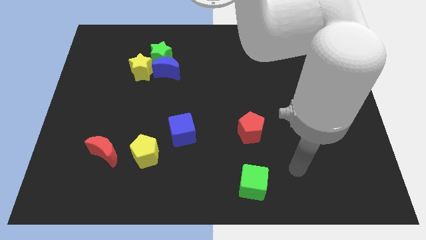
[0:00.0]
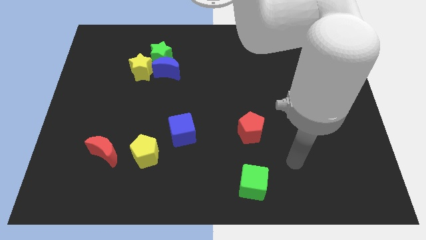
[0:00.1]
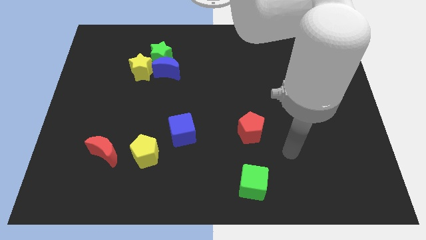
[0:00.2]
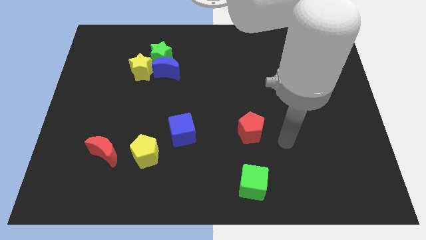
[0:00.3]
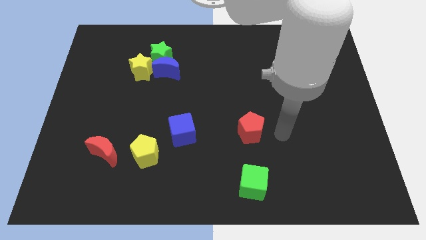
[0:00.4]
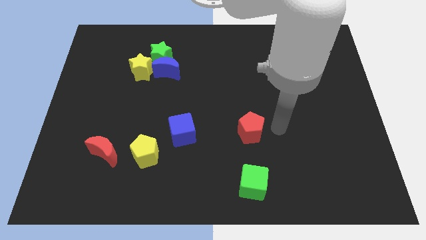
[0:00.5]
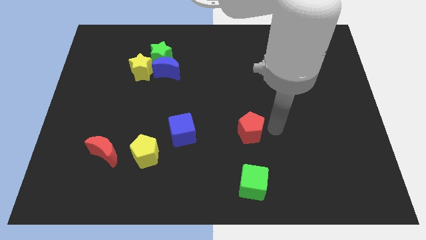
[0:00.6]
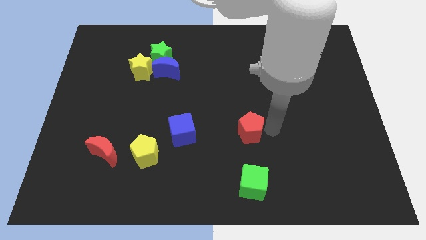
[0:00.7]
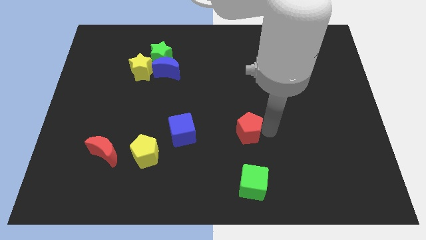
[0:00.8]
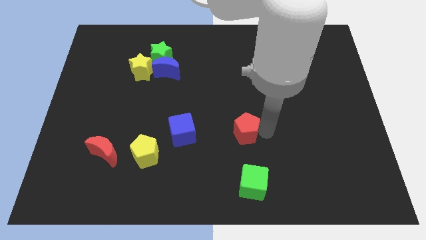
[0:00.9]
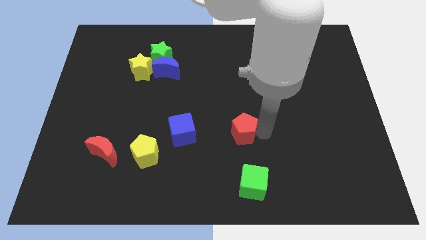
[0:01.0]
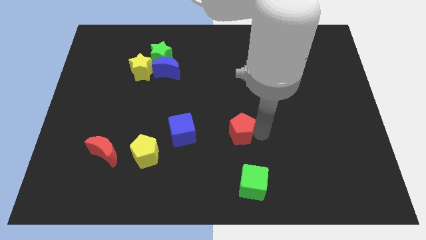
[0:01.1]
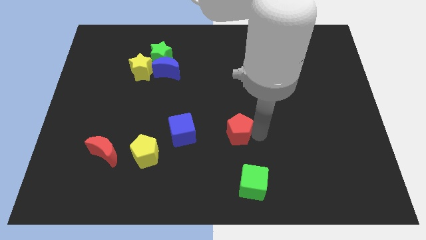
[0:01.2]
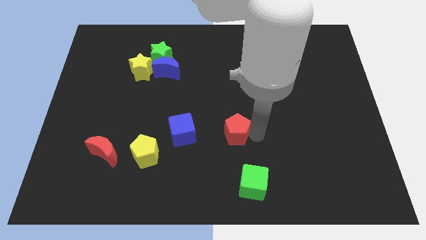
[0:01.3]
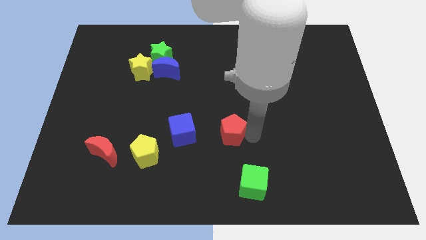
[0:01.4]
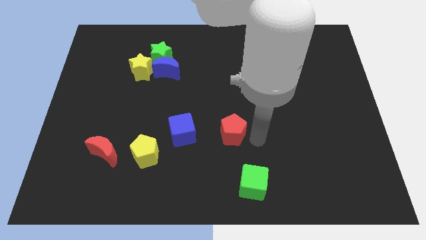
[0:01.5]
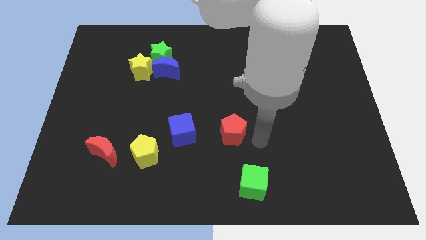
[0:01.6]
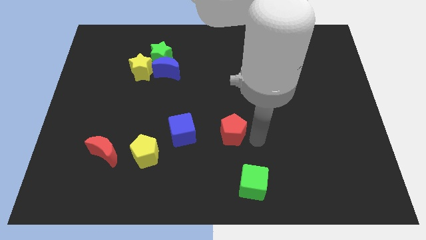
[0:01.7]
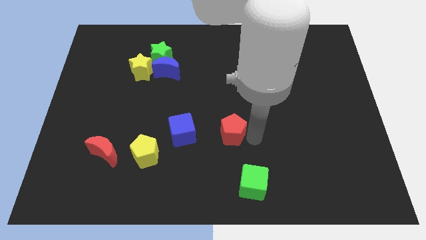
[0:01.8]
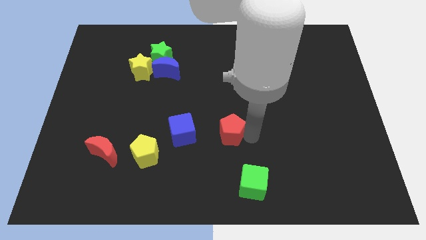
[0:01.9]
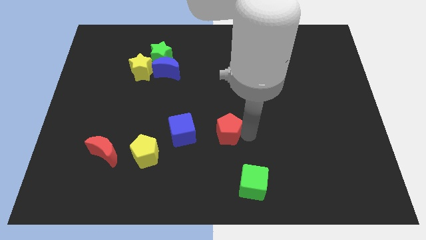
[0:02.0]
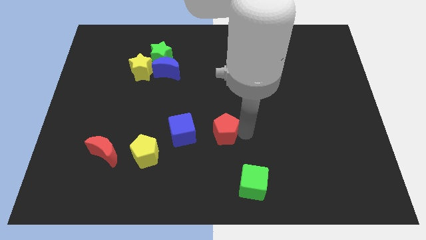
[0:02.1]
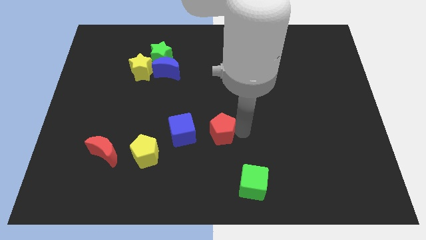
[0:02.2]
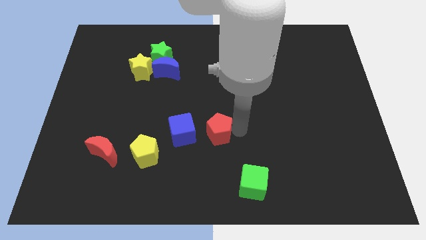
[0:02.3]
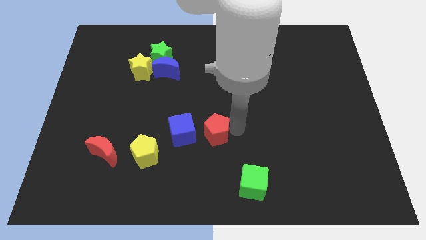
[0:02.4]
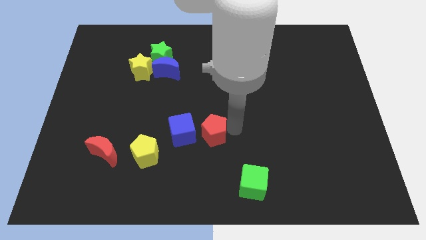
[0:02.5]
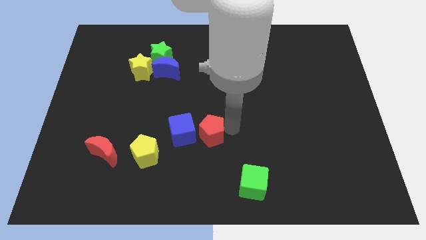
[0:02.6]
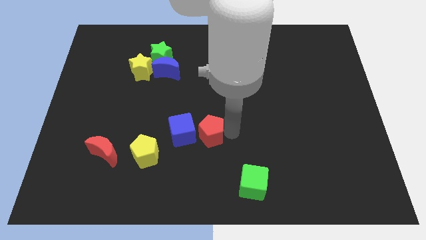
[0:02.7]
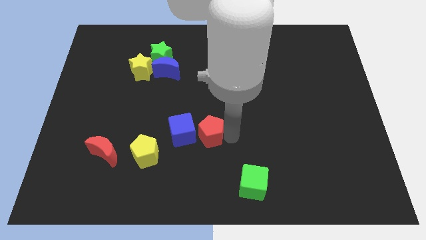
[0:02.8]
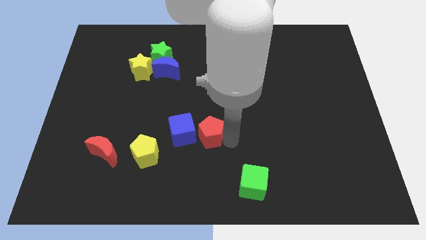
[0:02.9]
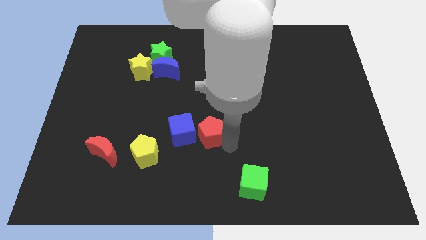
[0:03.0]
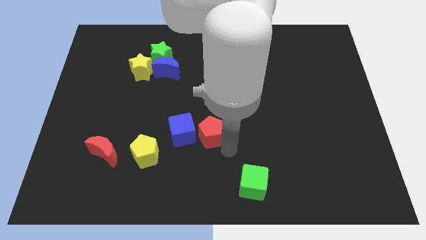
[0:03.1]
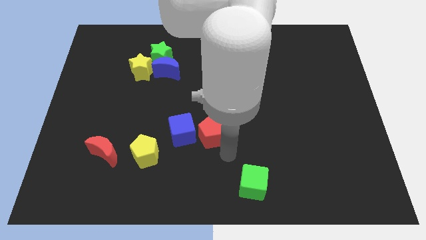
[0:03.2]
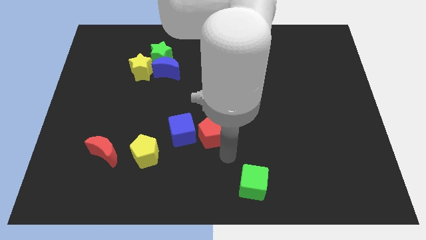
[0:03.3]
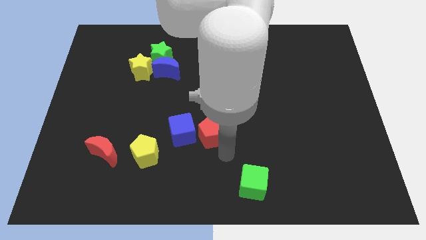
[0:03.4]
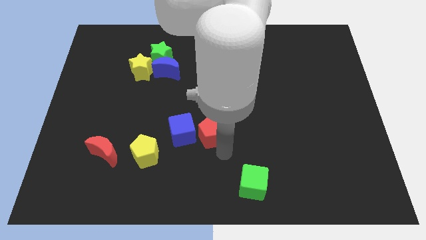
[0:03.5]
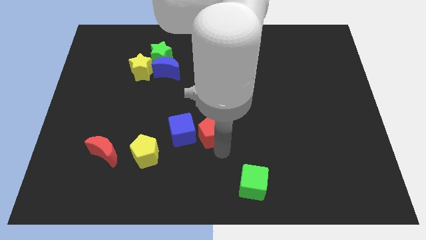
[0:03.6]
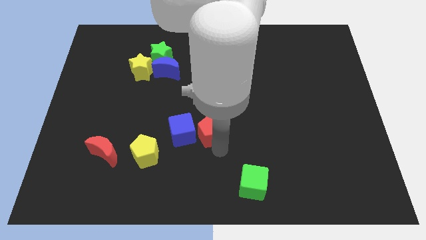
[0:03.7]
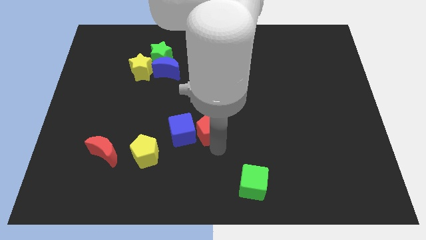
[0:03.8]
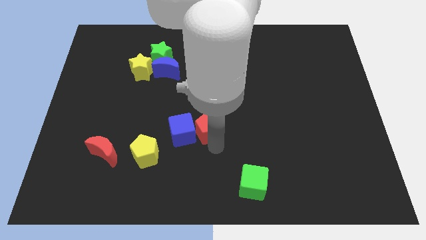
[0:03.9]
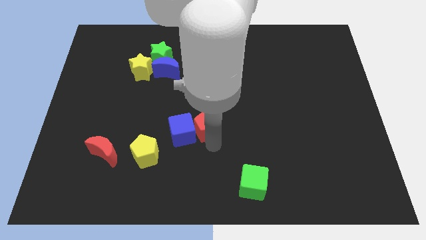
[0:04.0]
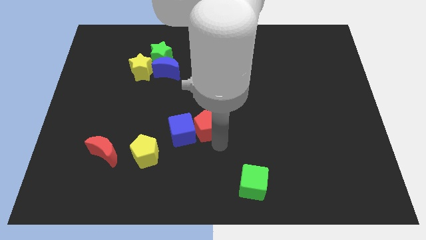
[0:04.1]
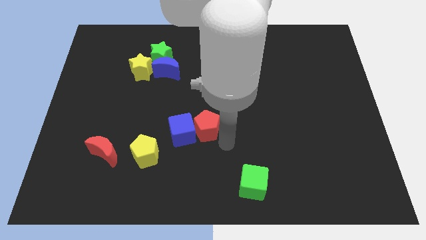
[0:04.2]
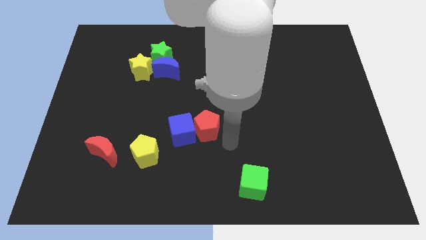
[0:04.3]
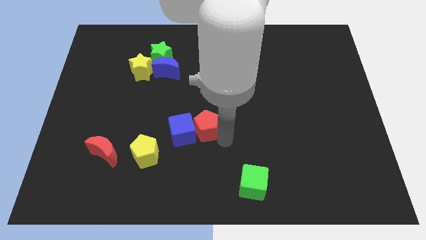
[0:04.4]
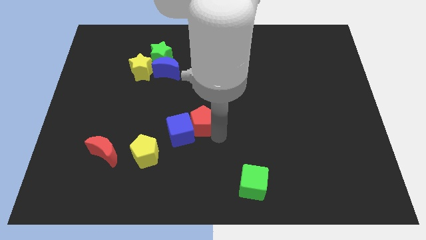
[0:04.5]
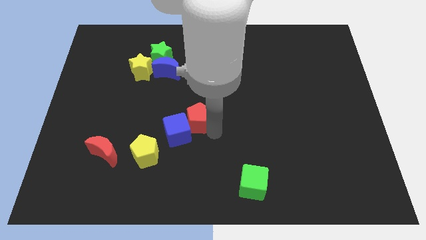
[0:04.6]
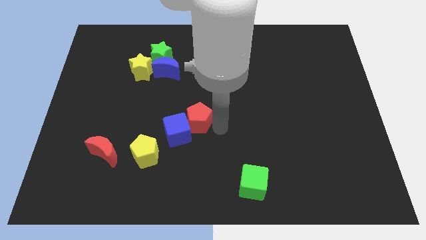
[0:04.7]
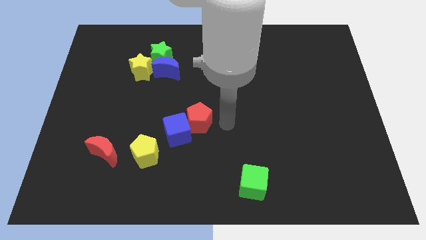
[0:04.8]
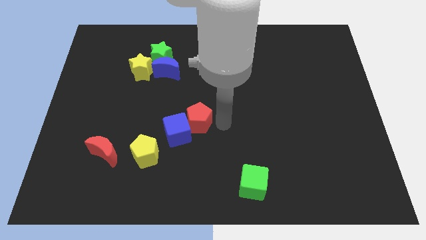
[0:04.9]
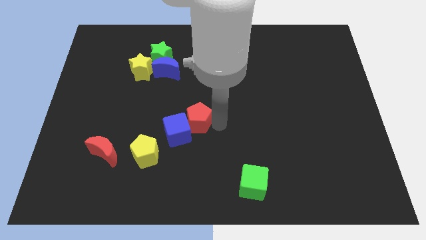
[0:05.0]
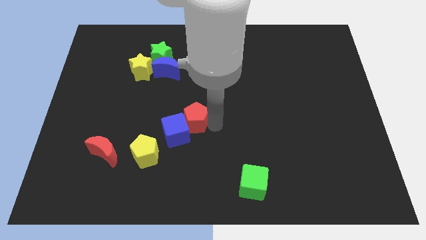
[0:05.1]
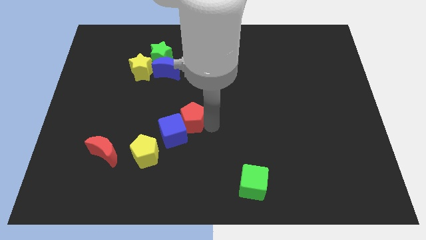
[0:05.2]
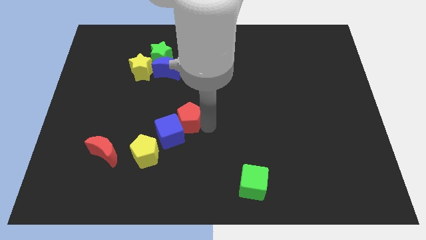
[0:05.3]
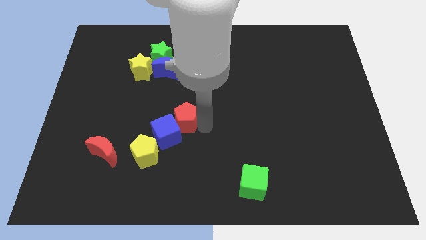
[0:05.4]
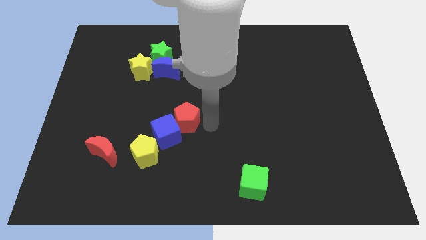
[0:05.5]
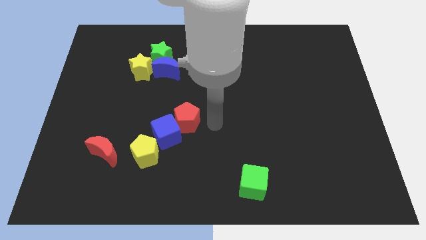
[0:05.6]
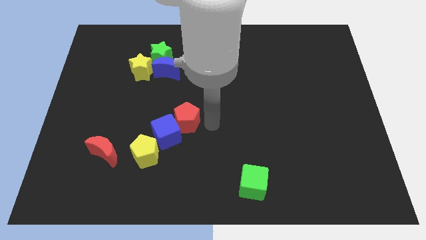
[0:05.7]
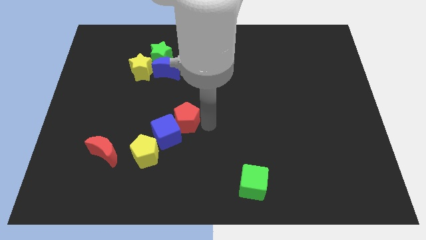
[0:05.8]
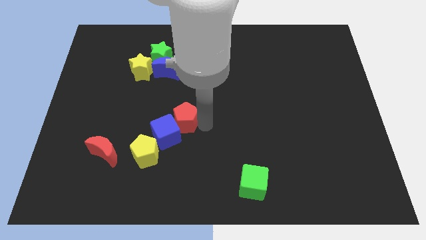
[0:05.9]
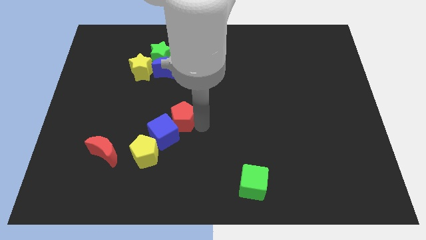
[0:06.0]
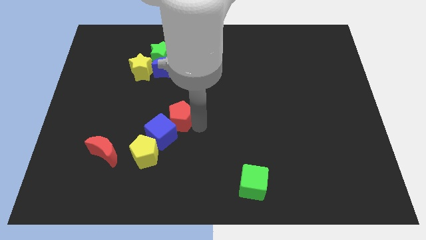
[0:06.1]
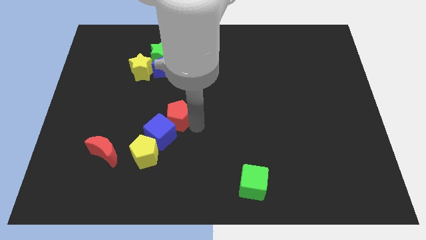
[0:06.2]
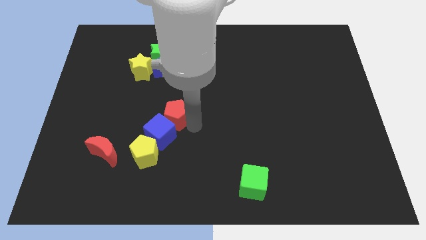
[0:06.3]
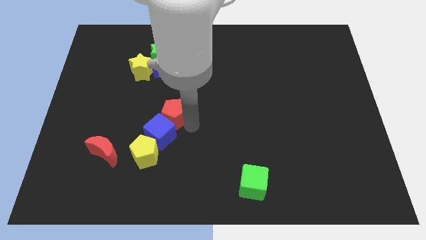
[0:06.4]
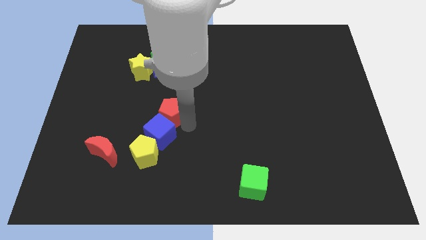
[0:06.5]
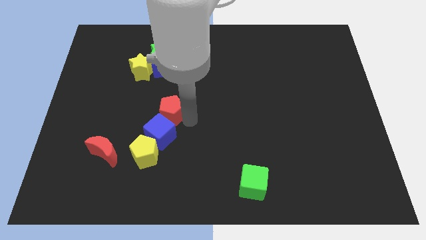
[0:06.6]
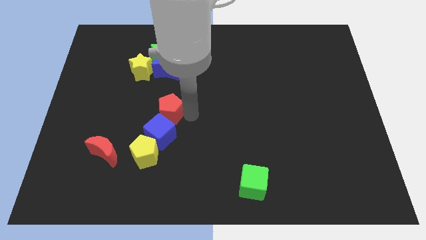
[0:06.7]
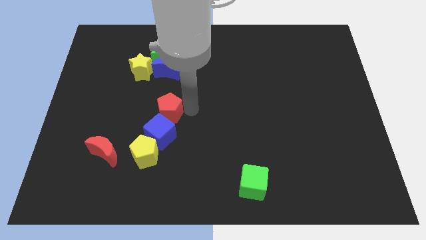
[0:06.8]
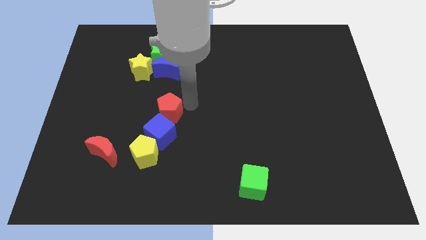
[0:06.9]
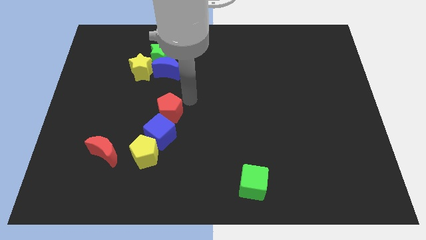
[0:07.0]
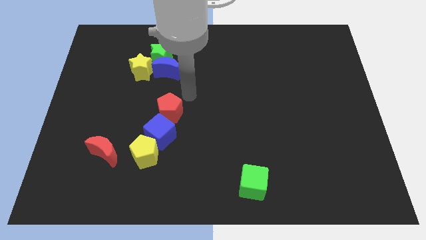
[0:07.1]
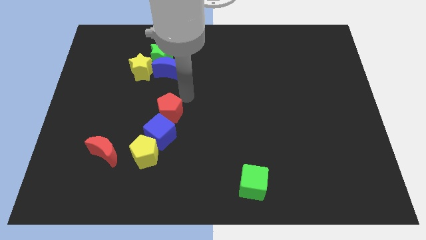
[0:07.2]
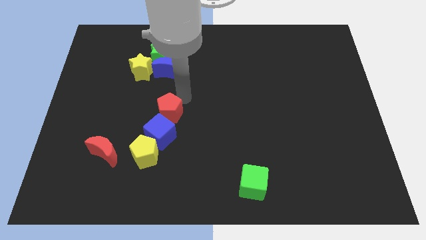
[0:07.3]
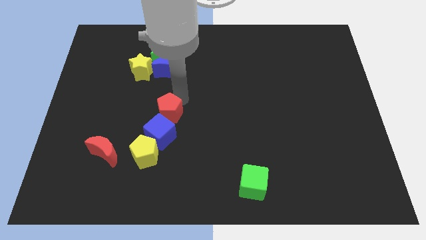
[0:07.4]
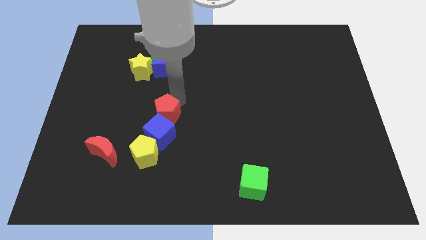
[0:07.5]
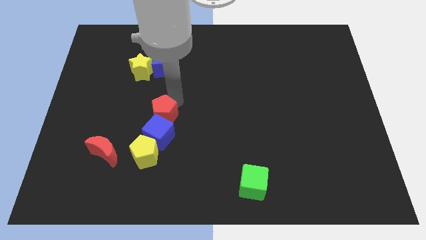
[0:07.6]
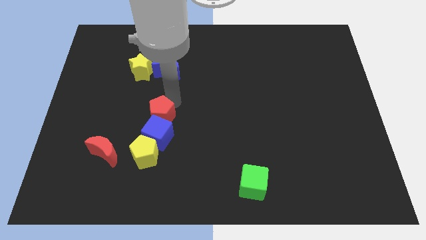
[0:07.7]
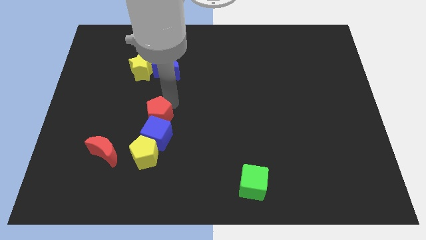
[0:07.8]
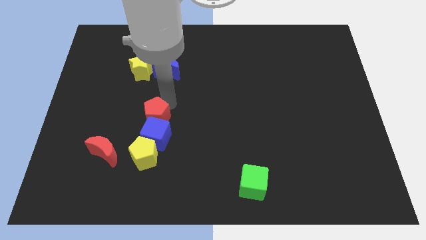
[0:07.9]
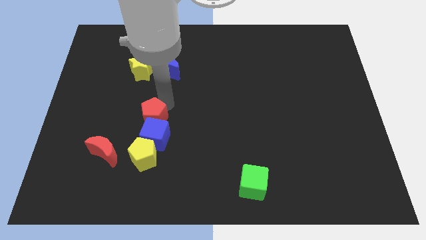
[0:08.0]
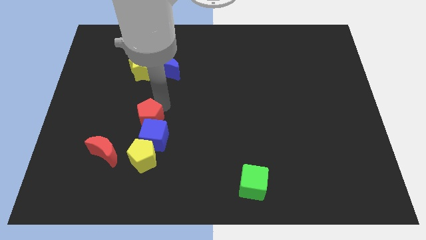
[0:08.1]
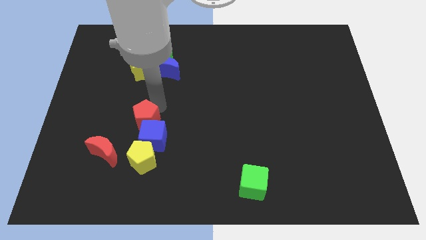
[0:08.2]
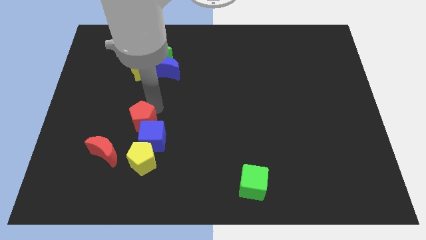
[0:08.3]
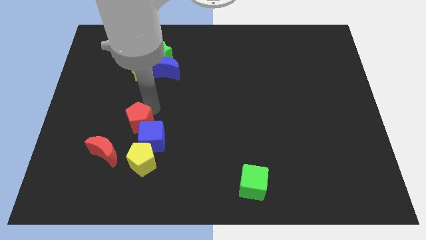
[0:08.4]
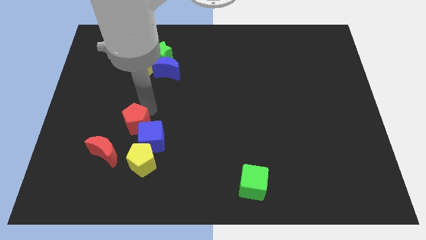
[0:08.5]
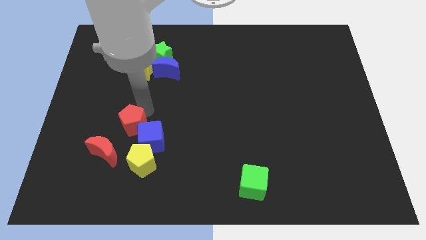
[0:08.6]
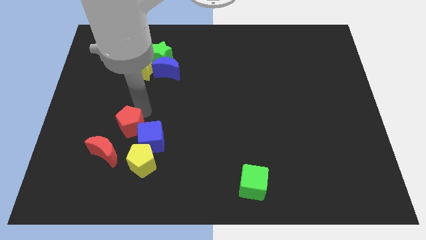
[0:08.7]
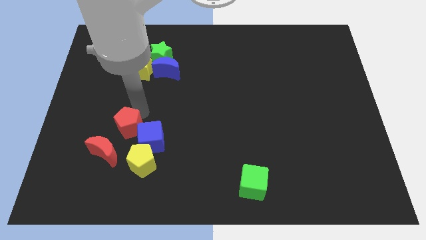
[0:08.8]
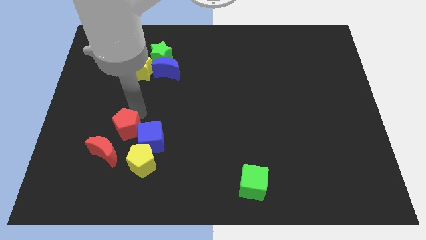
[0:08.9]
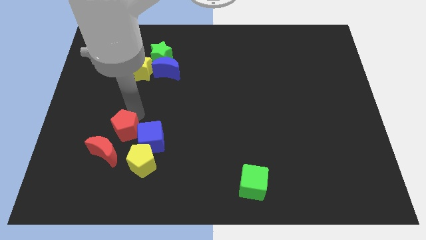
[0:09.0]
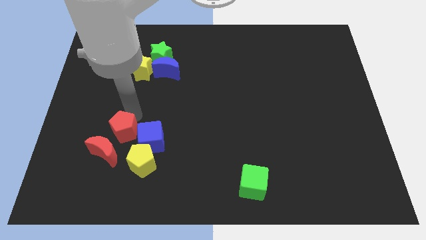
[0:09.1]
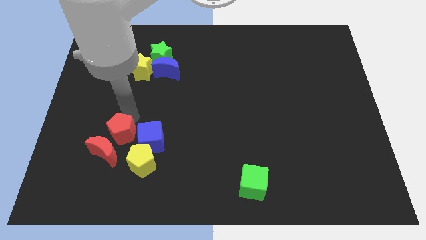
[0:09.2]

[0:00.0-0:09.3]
slide the red pentagon close to the red moon
